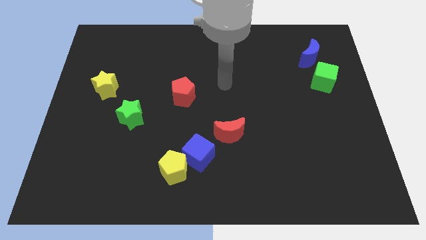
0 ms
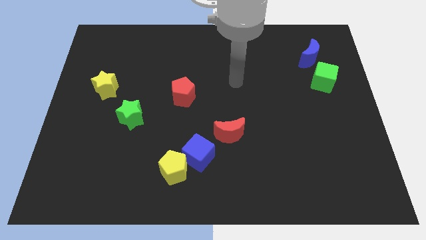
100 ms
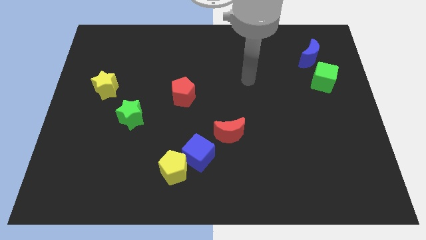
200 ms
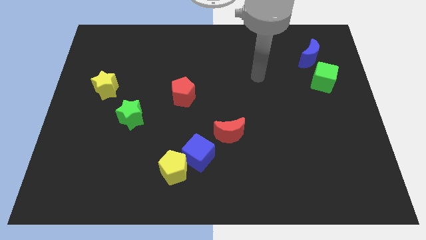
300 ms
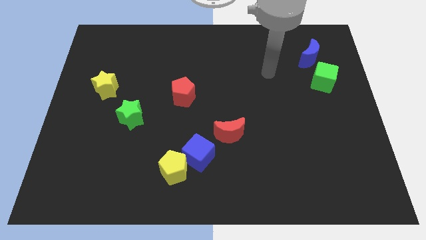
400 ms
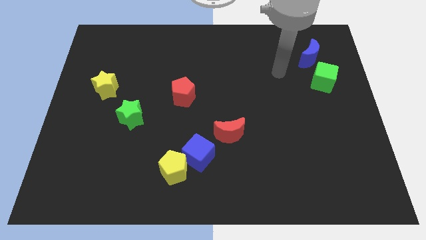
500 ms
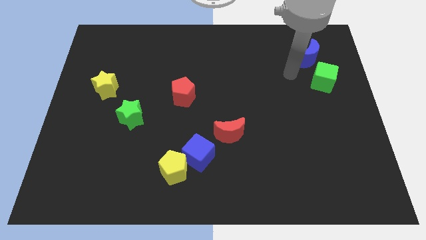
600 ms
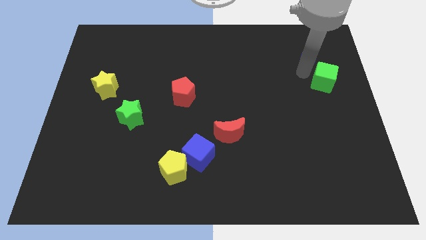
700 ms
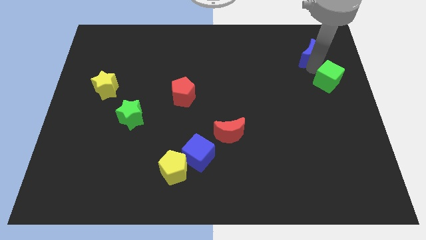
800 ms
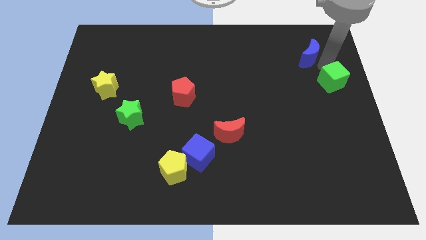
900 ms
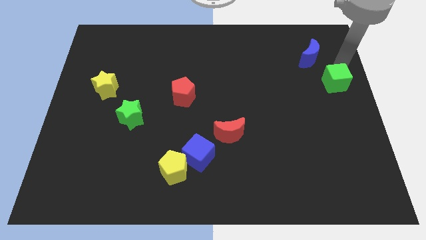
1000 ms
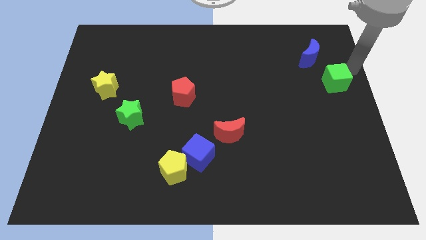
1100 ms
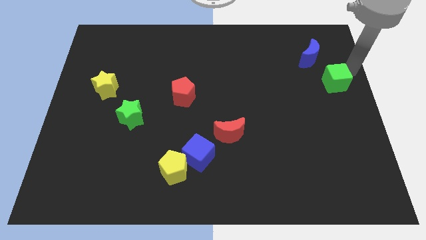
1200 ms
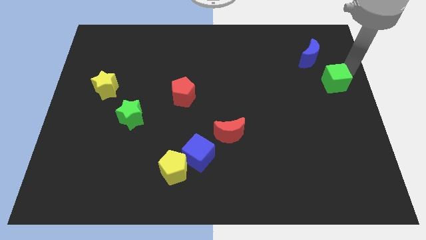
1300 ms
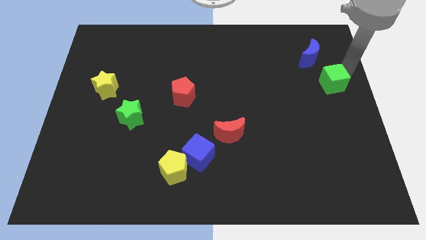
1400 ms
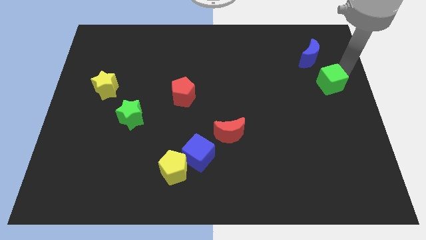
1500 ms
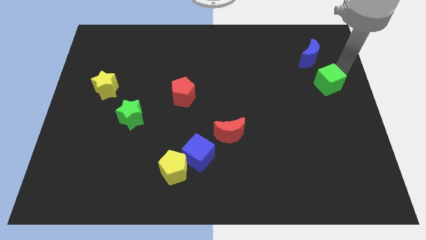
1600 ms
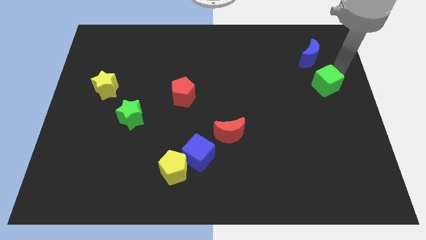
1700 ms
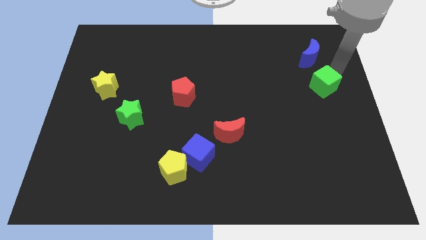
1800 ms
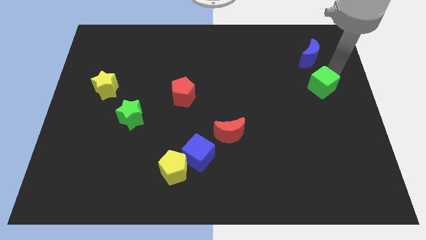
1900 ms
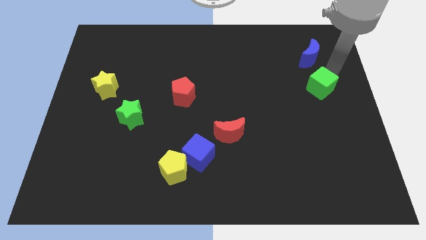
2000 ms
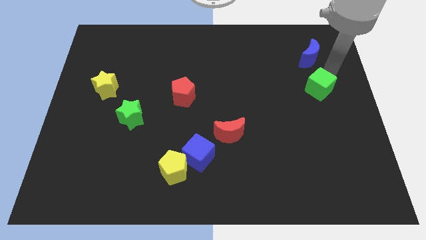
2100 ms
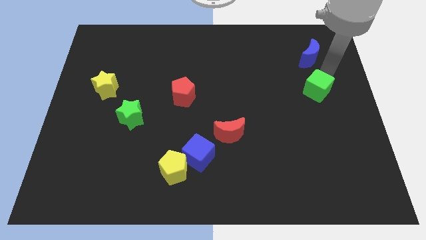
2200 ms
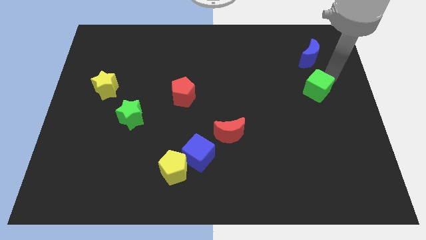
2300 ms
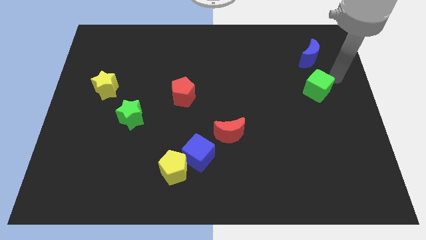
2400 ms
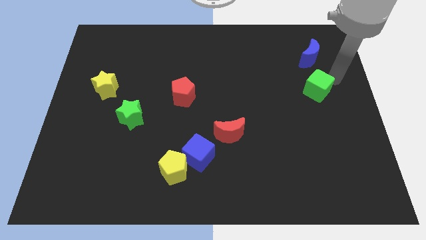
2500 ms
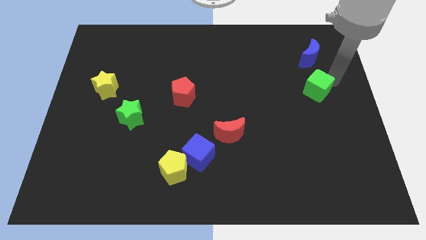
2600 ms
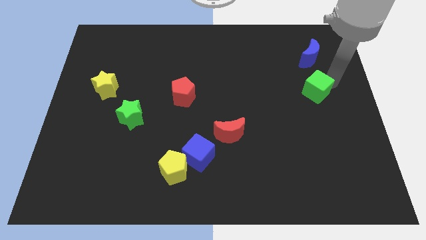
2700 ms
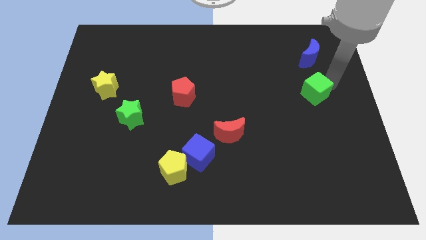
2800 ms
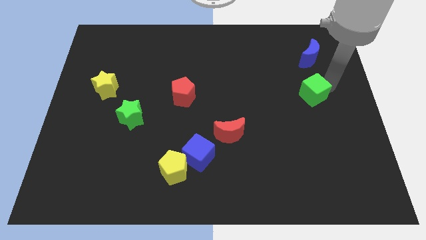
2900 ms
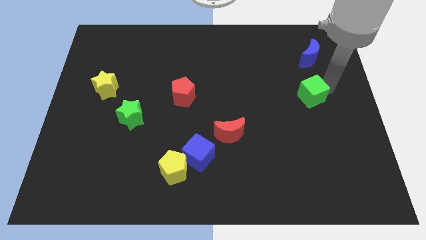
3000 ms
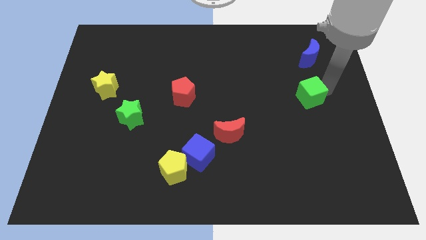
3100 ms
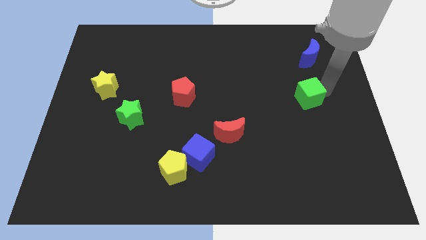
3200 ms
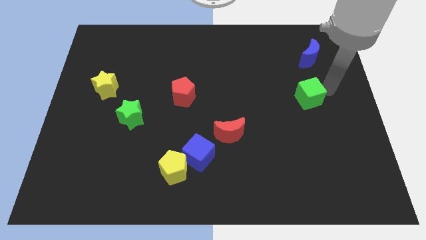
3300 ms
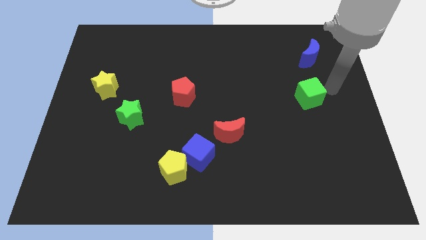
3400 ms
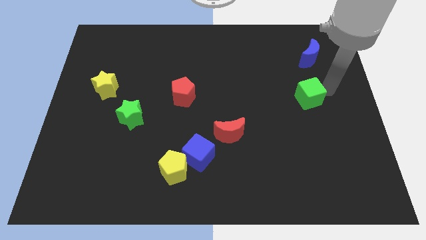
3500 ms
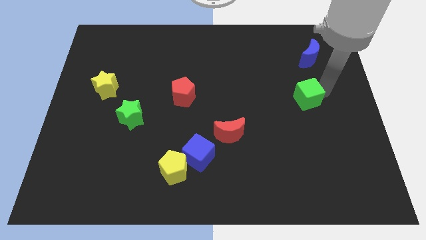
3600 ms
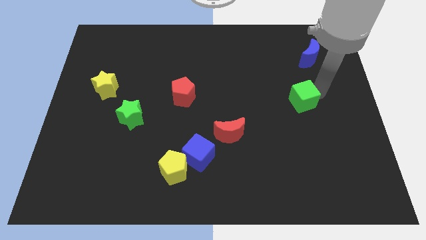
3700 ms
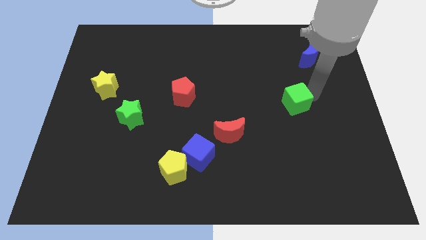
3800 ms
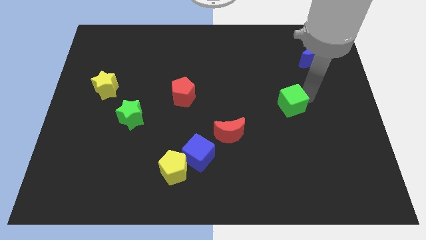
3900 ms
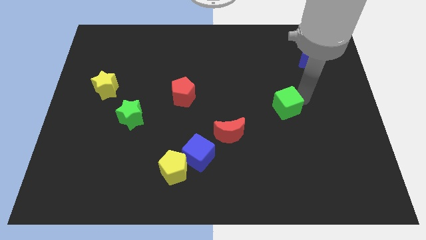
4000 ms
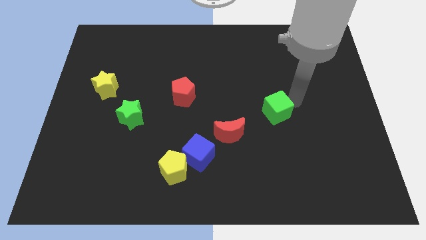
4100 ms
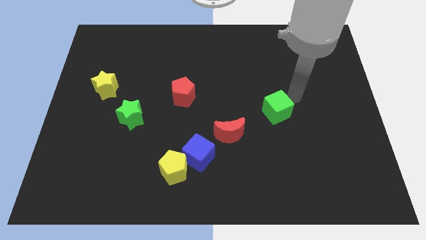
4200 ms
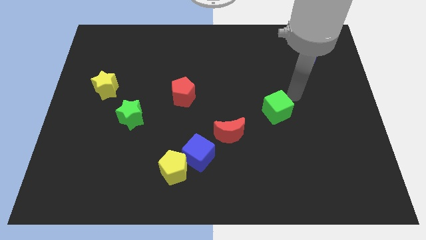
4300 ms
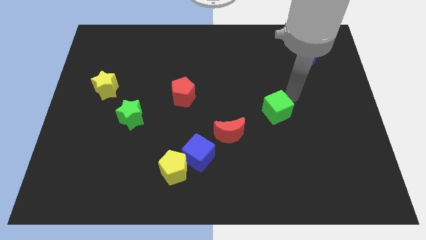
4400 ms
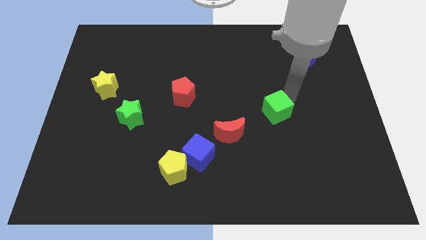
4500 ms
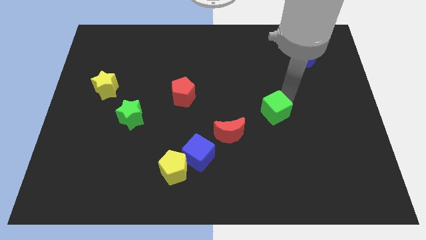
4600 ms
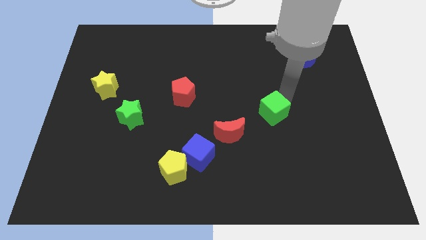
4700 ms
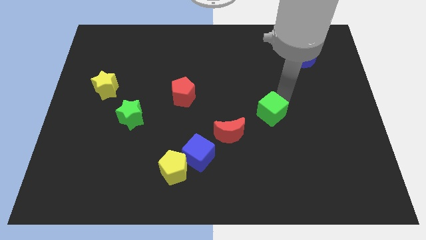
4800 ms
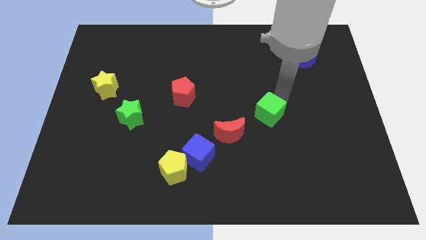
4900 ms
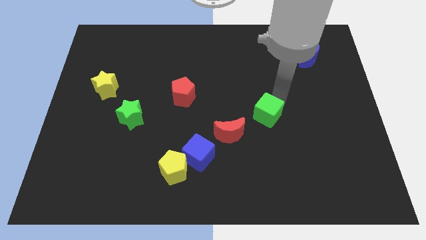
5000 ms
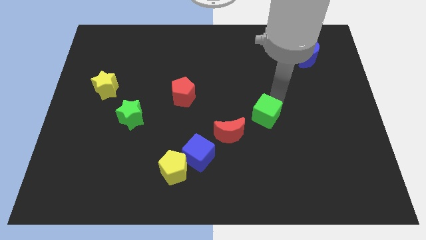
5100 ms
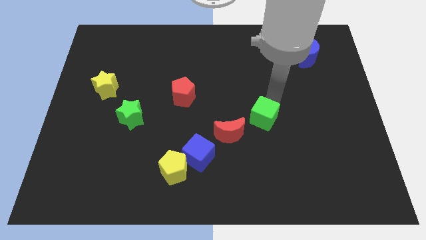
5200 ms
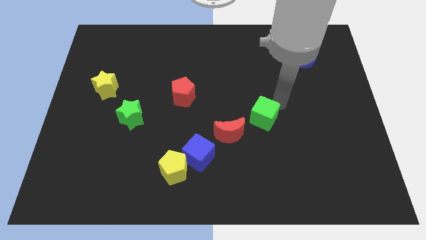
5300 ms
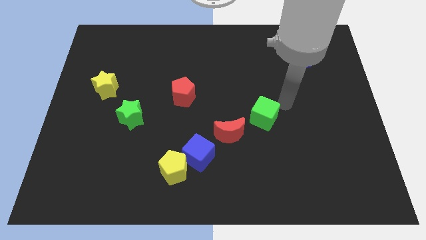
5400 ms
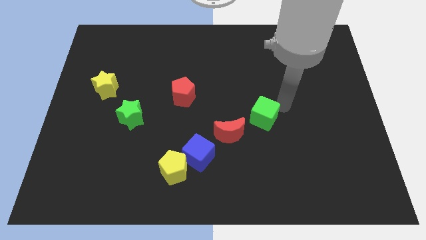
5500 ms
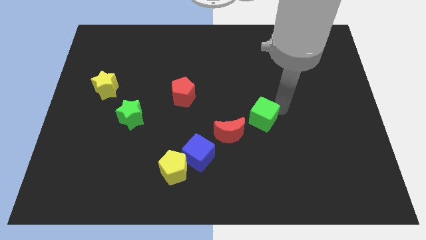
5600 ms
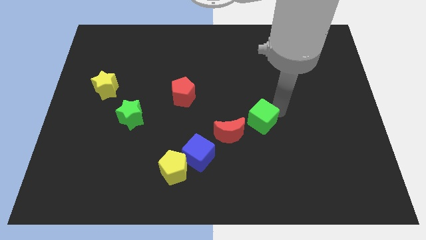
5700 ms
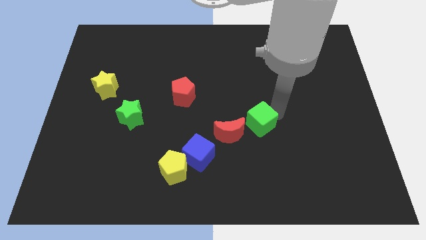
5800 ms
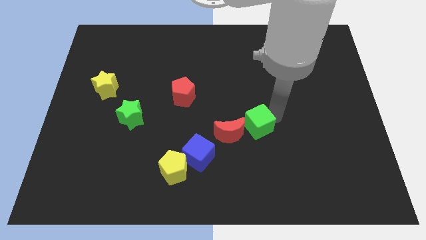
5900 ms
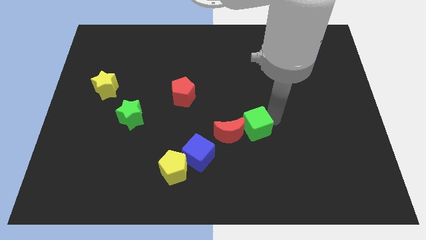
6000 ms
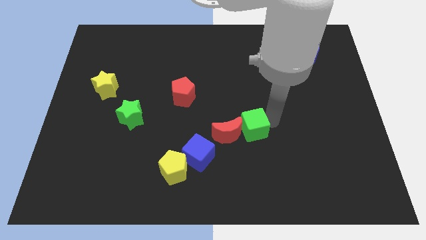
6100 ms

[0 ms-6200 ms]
put the green cube to the red moon

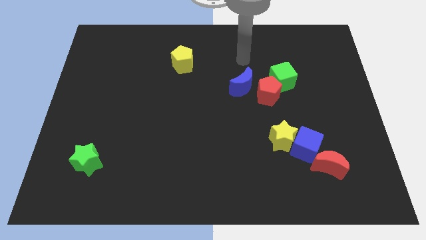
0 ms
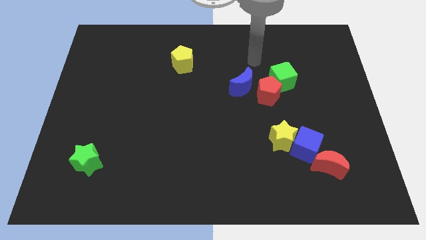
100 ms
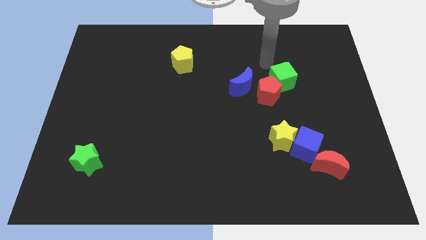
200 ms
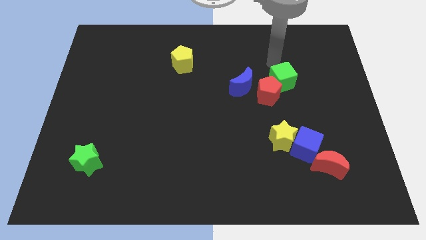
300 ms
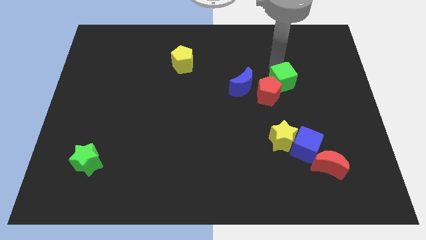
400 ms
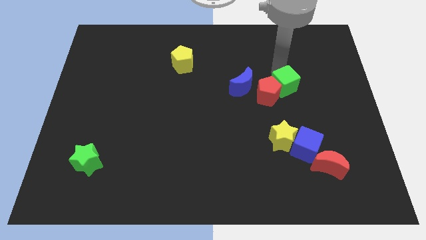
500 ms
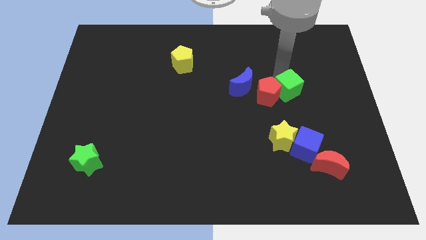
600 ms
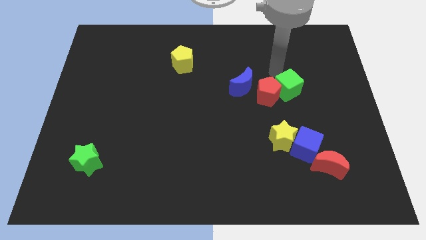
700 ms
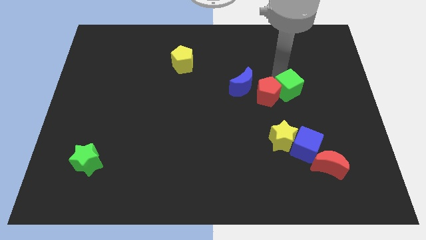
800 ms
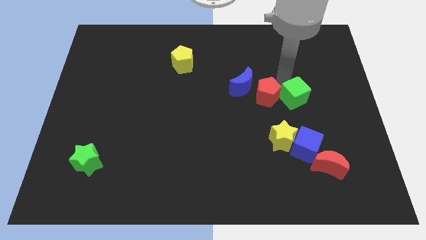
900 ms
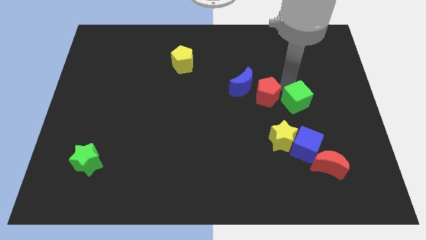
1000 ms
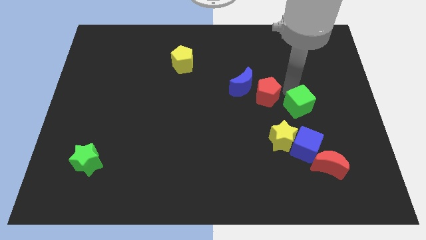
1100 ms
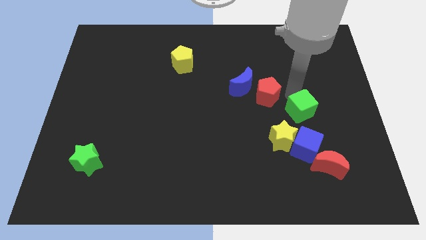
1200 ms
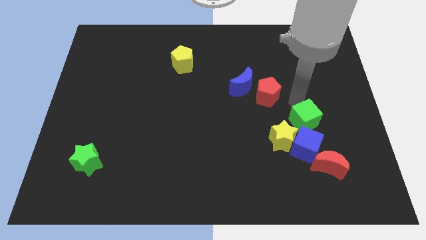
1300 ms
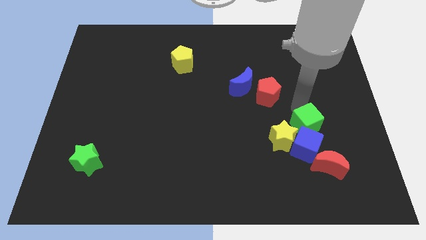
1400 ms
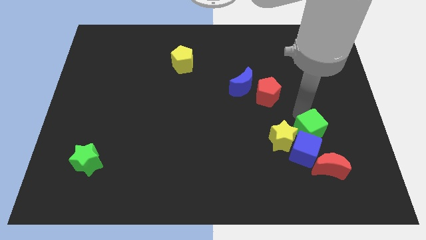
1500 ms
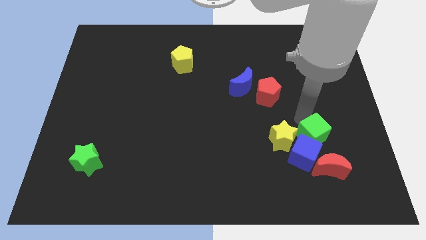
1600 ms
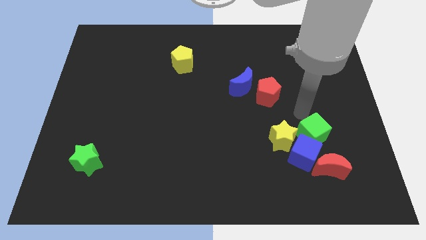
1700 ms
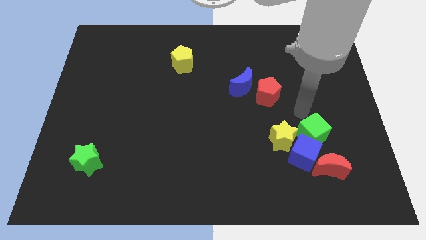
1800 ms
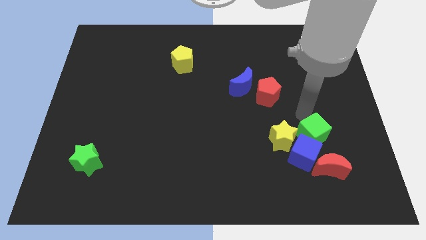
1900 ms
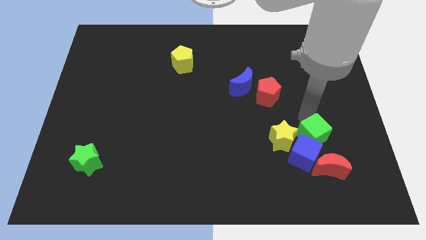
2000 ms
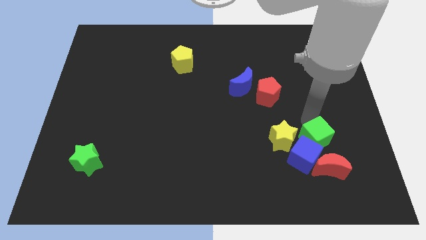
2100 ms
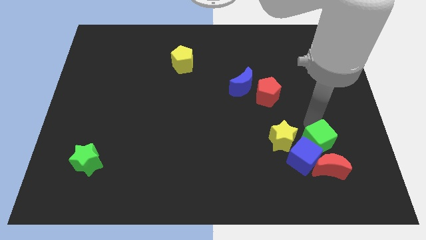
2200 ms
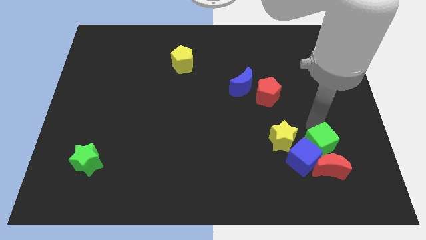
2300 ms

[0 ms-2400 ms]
slide the green cube close to the red moon
